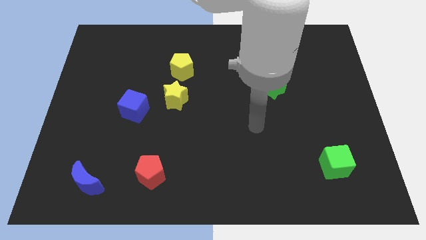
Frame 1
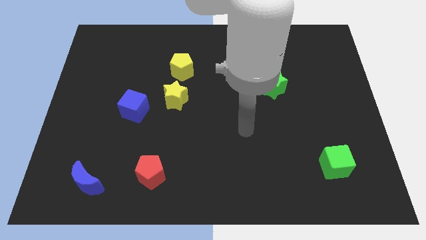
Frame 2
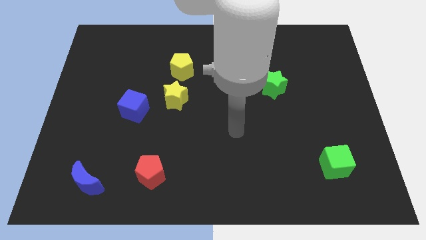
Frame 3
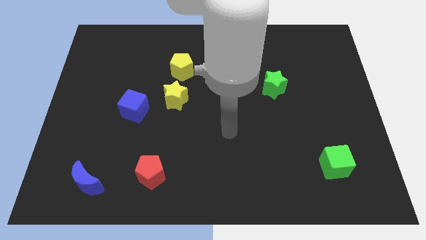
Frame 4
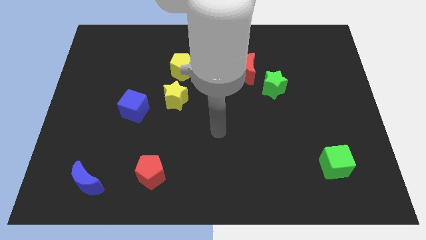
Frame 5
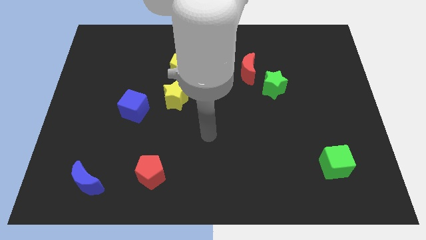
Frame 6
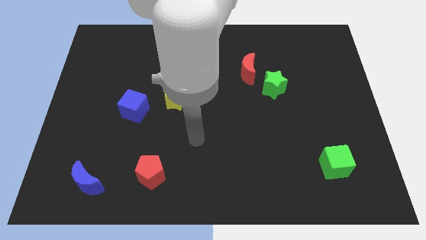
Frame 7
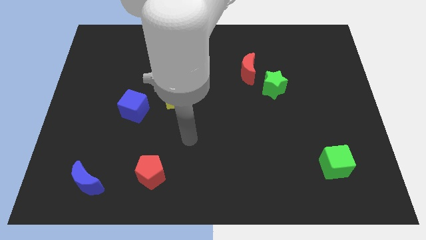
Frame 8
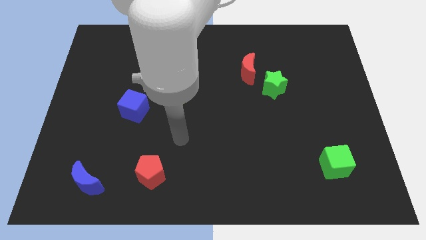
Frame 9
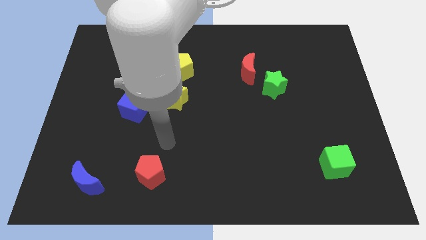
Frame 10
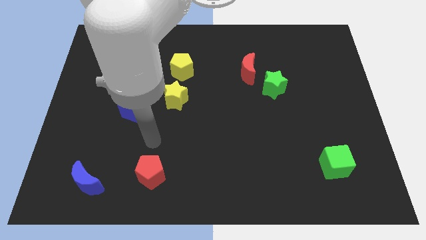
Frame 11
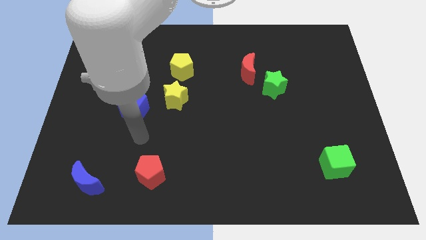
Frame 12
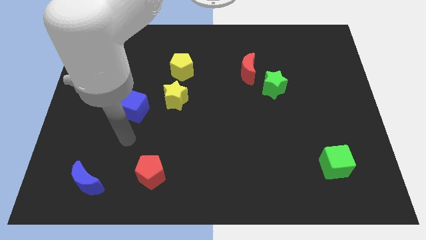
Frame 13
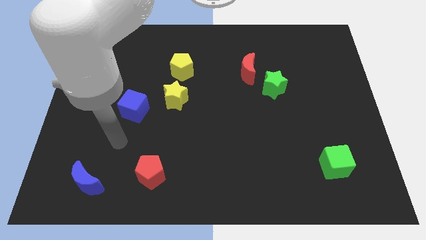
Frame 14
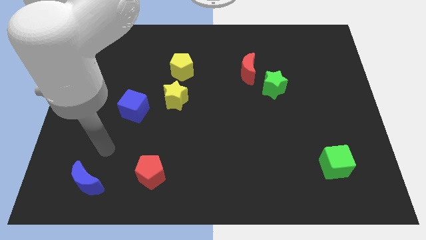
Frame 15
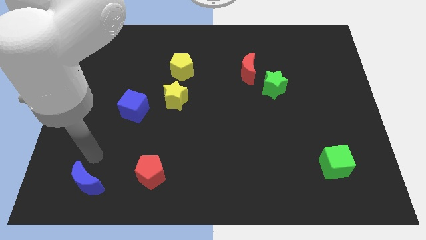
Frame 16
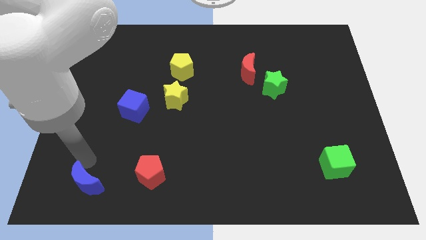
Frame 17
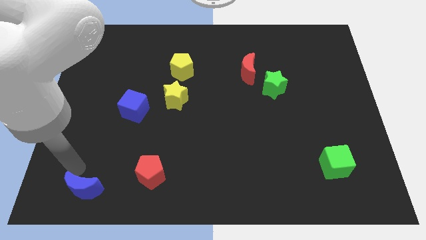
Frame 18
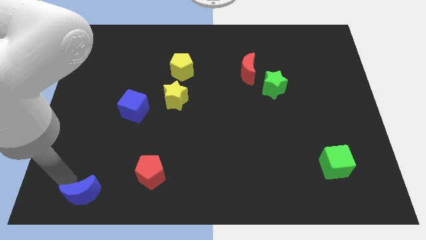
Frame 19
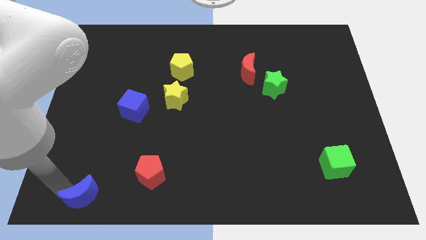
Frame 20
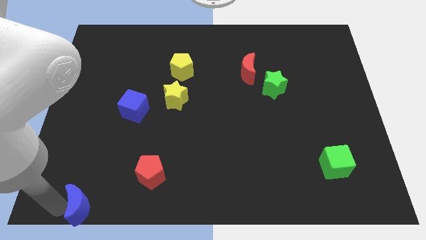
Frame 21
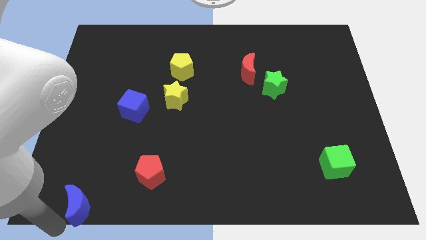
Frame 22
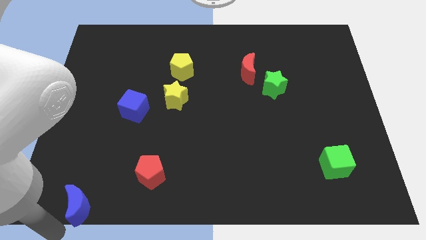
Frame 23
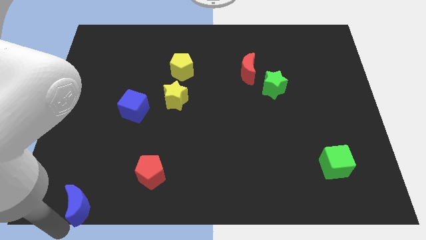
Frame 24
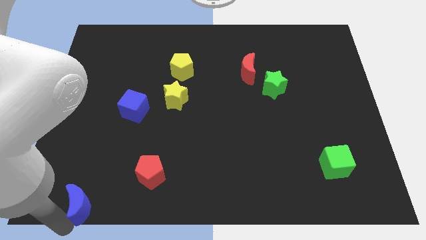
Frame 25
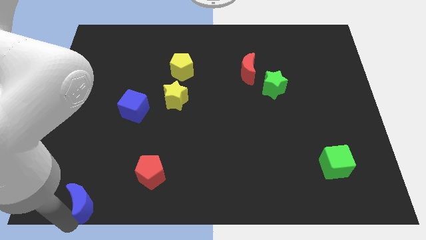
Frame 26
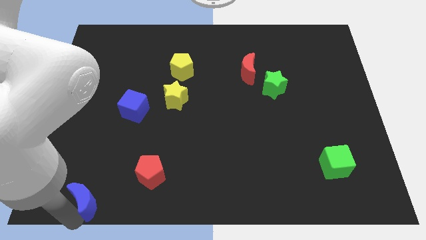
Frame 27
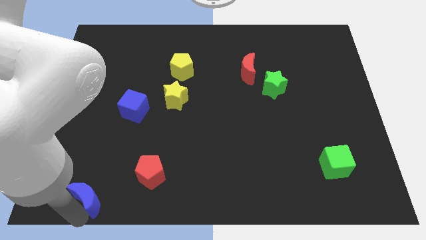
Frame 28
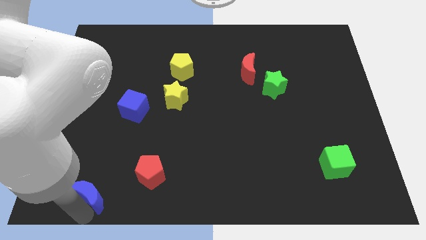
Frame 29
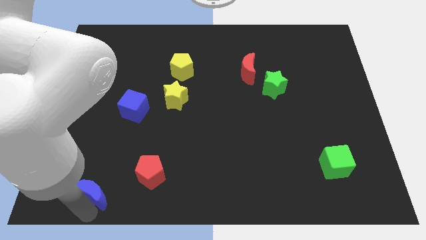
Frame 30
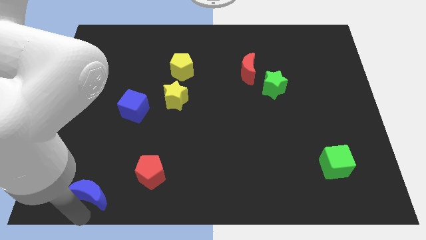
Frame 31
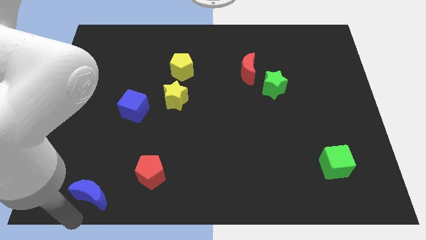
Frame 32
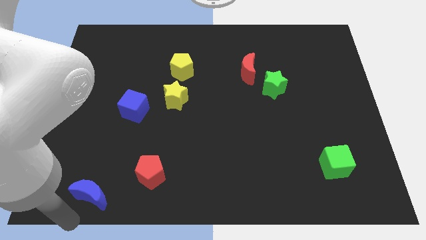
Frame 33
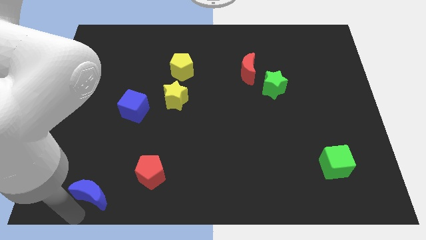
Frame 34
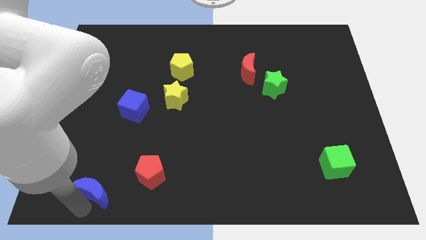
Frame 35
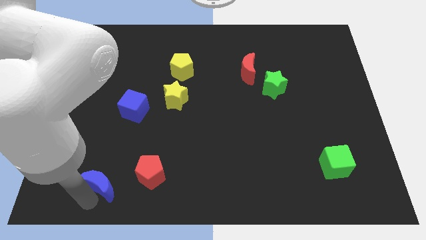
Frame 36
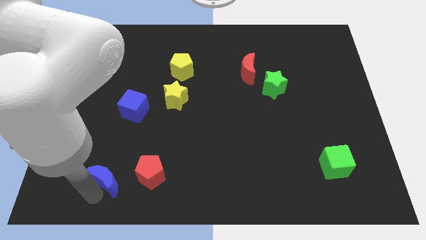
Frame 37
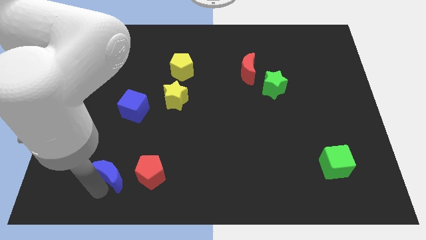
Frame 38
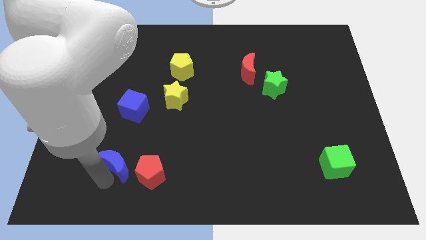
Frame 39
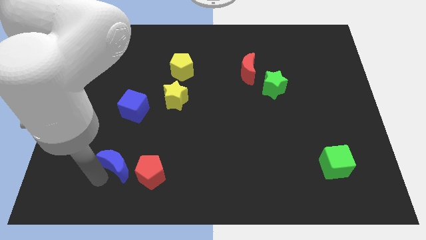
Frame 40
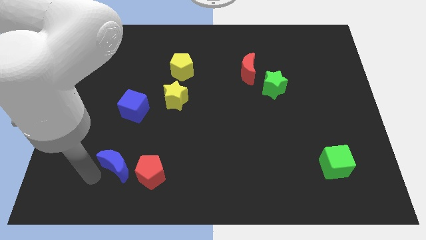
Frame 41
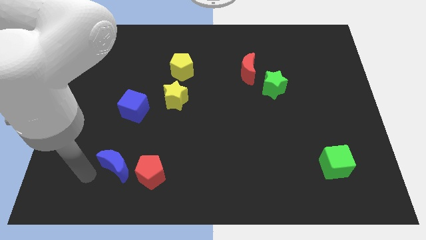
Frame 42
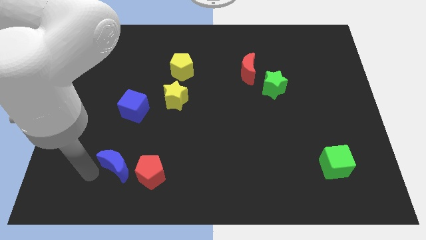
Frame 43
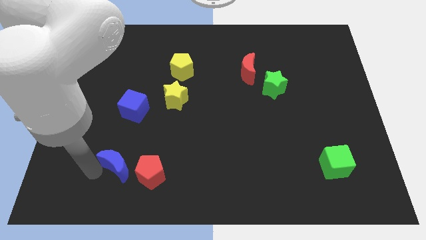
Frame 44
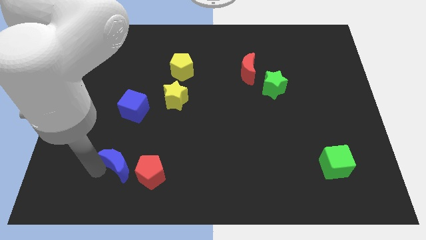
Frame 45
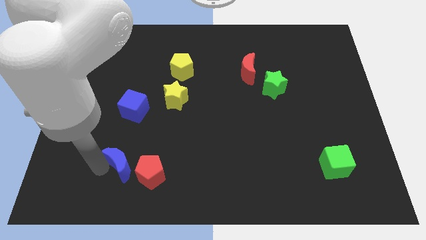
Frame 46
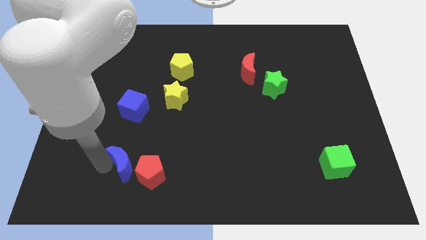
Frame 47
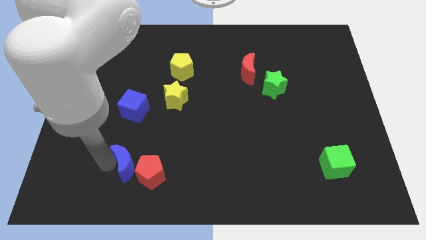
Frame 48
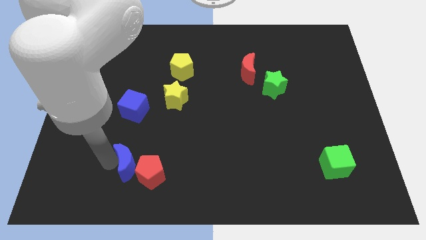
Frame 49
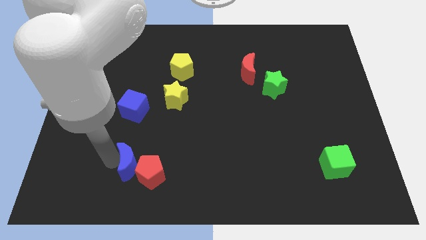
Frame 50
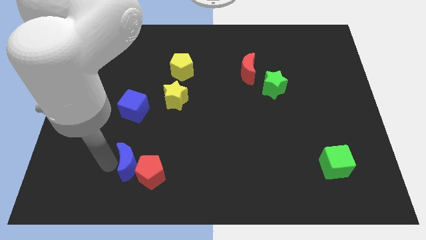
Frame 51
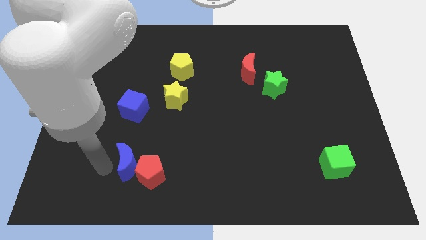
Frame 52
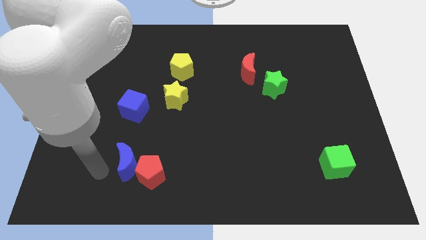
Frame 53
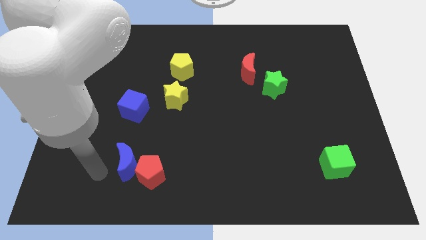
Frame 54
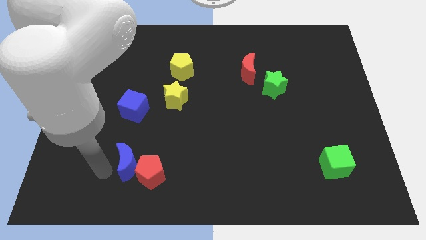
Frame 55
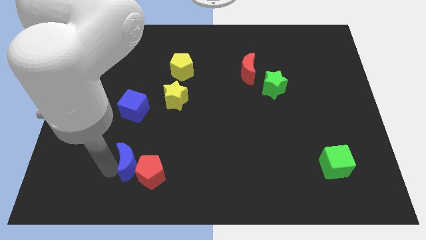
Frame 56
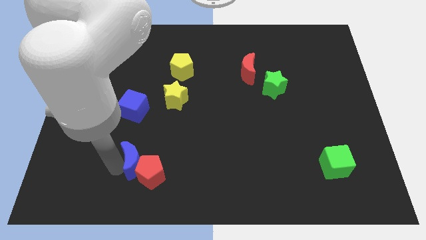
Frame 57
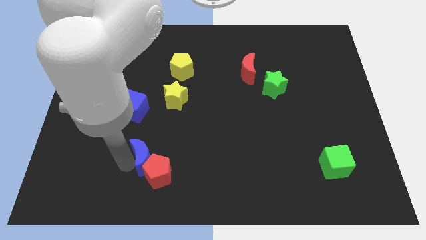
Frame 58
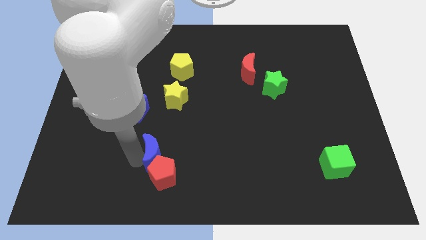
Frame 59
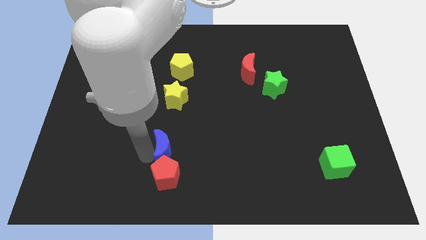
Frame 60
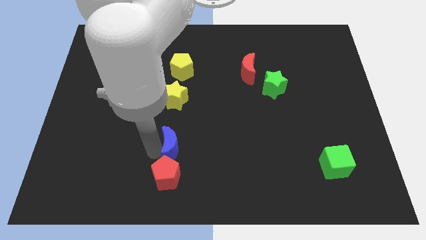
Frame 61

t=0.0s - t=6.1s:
slide the blue moon to the top right of the red pentagon
